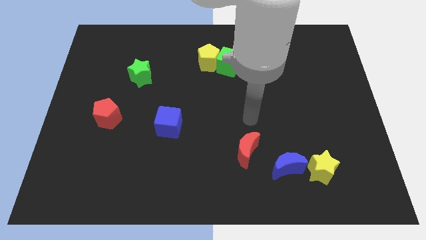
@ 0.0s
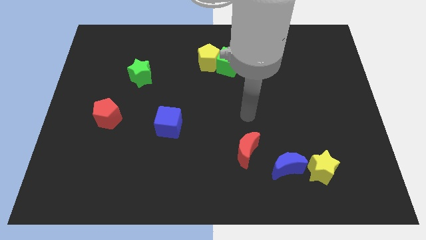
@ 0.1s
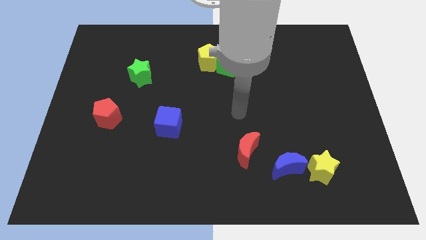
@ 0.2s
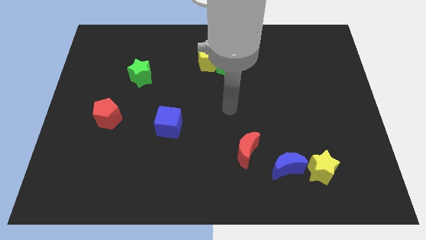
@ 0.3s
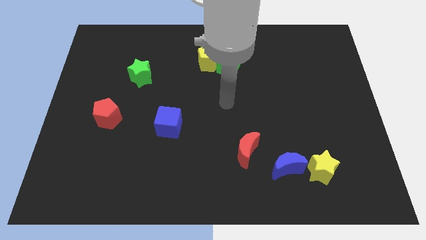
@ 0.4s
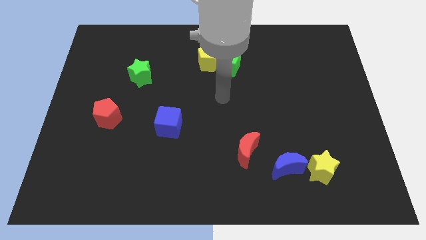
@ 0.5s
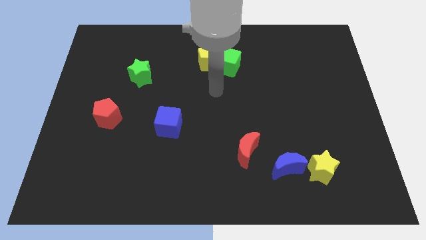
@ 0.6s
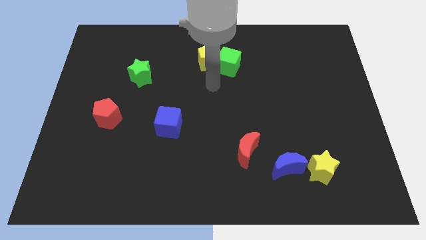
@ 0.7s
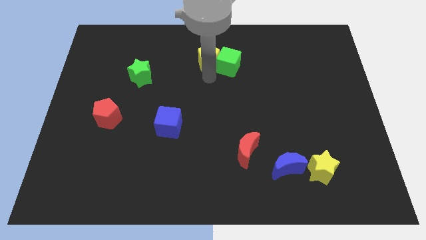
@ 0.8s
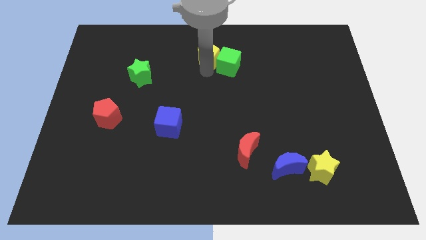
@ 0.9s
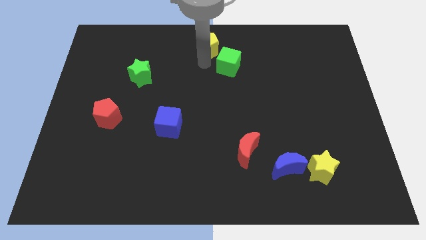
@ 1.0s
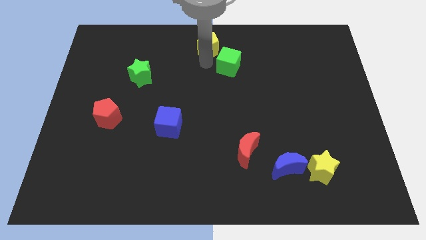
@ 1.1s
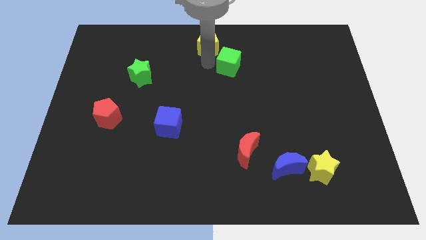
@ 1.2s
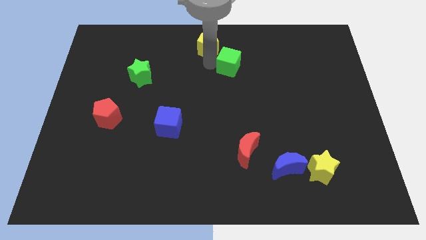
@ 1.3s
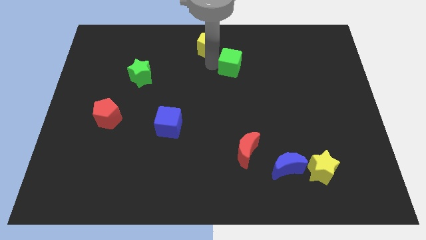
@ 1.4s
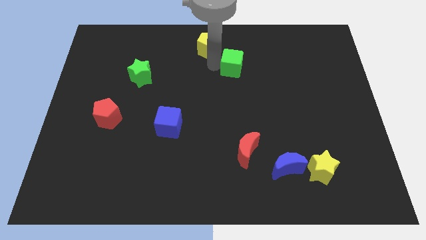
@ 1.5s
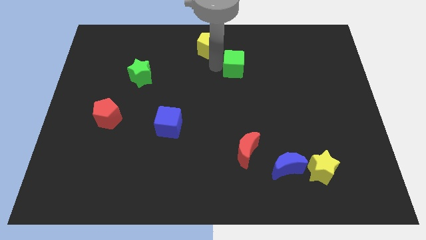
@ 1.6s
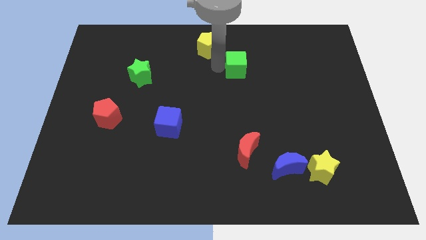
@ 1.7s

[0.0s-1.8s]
move the green cube away from the yellow pentagon

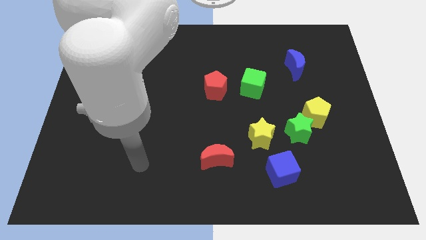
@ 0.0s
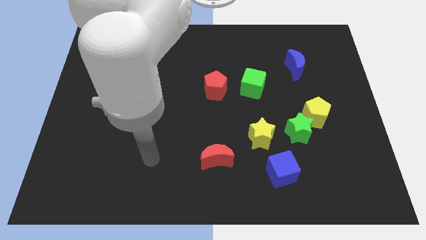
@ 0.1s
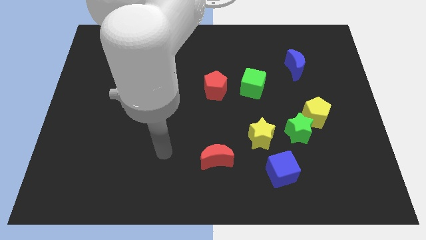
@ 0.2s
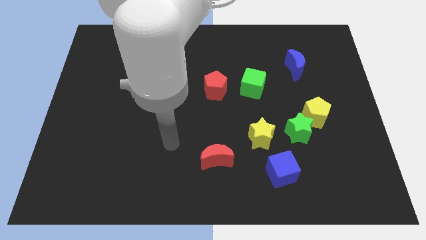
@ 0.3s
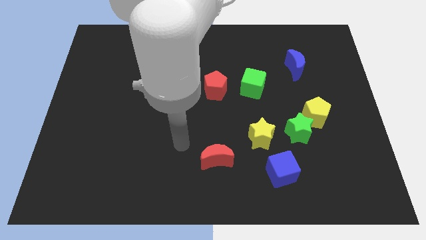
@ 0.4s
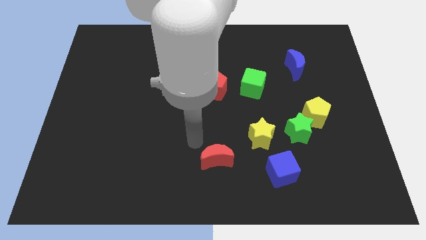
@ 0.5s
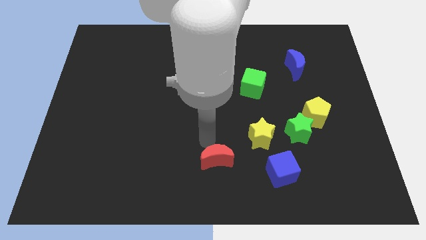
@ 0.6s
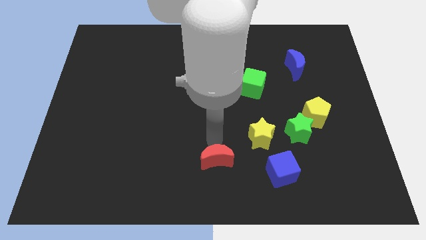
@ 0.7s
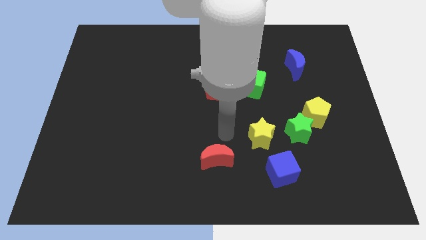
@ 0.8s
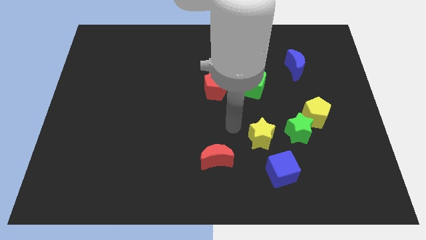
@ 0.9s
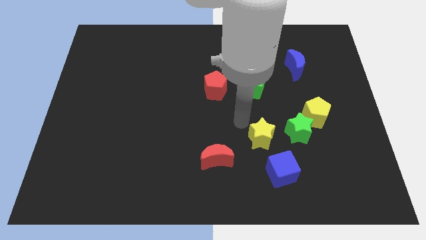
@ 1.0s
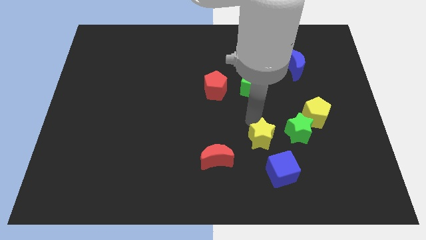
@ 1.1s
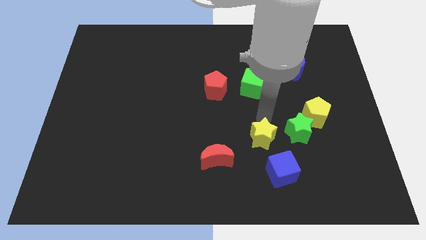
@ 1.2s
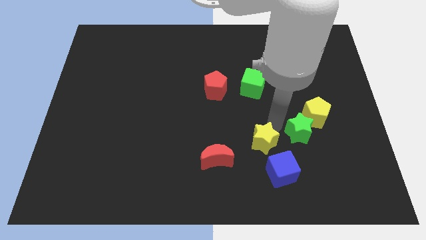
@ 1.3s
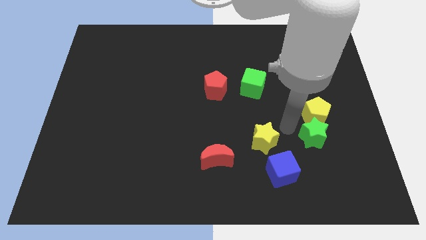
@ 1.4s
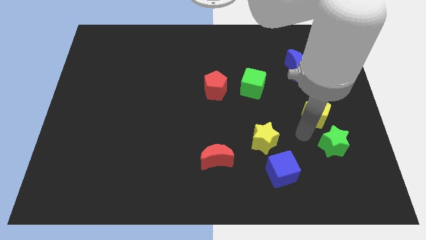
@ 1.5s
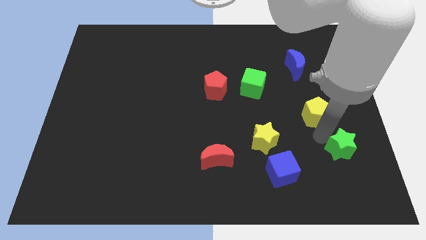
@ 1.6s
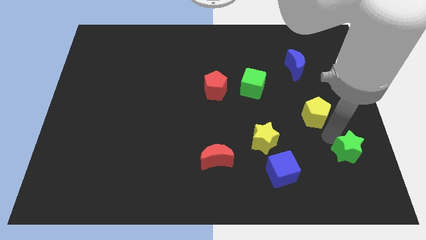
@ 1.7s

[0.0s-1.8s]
separate the yellow pentagon from the green star

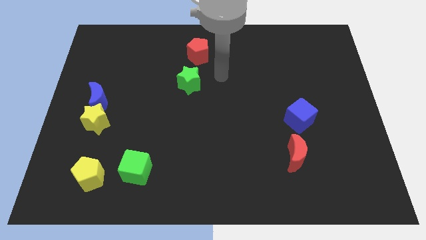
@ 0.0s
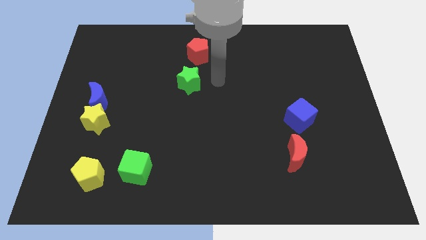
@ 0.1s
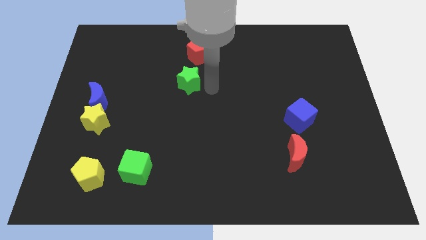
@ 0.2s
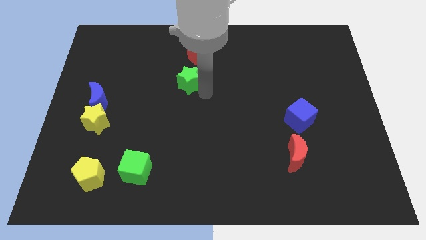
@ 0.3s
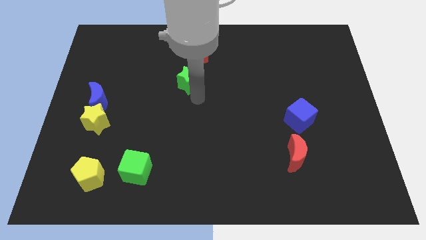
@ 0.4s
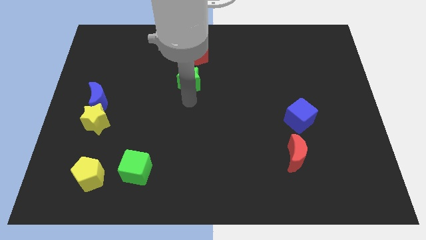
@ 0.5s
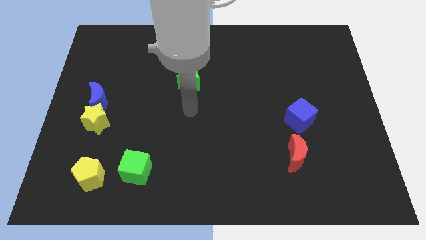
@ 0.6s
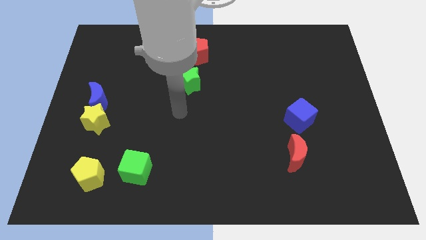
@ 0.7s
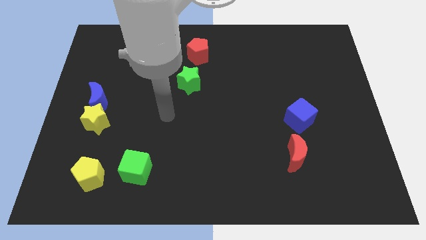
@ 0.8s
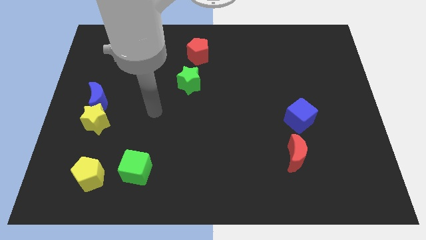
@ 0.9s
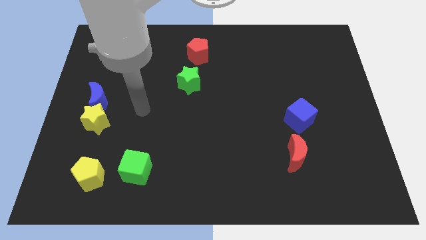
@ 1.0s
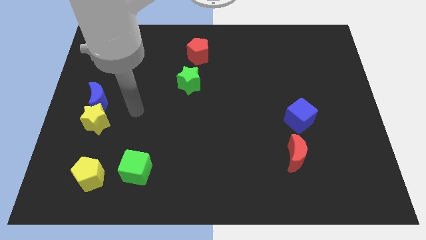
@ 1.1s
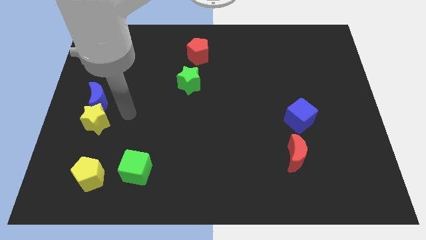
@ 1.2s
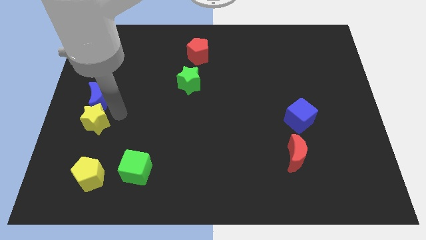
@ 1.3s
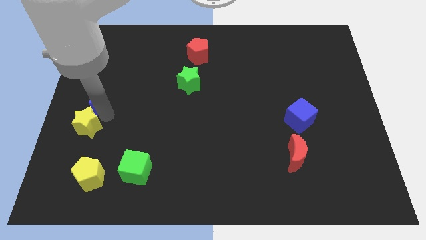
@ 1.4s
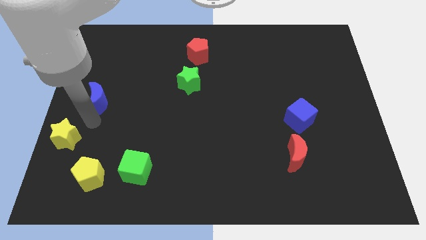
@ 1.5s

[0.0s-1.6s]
separate the blue moon from the yellow star

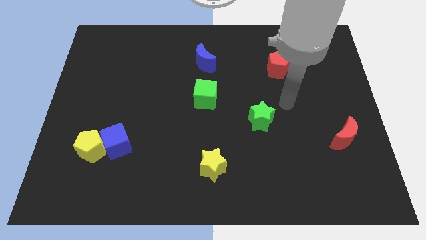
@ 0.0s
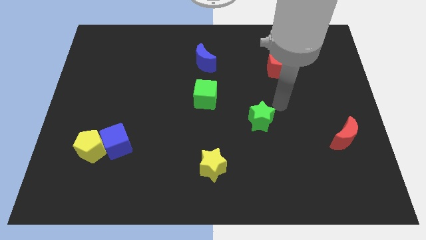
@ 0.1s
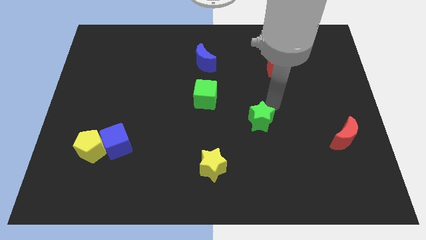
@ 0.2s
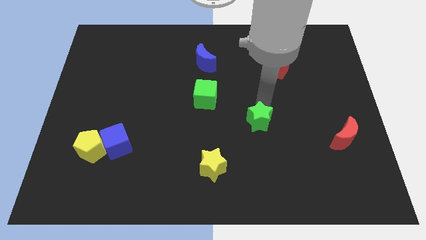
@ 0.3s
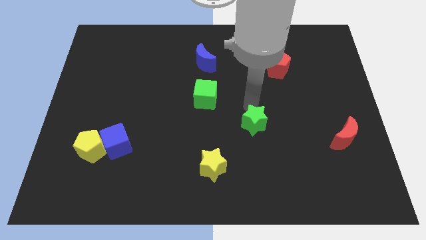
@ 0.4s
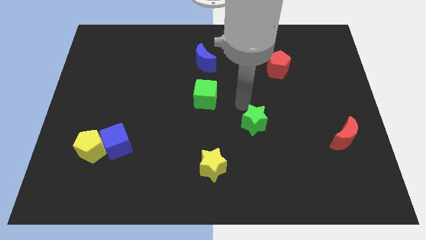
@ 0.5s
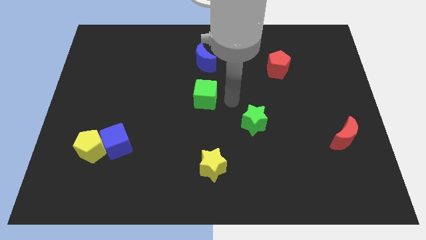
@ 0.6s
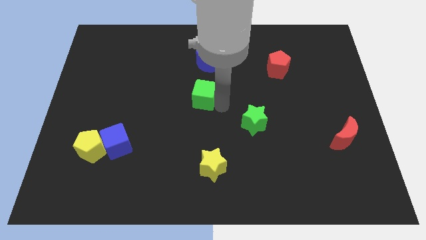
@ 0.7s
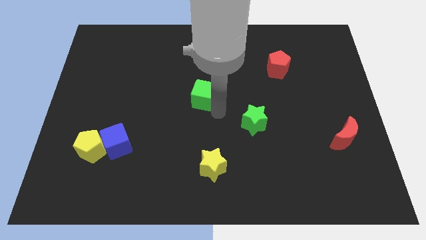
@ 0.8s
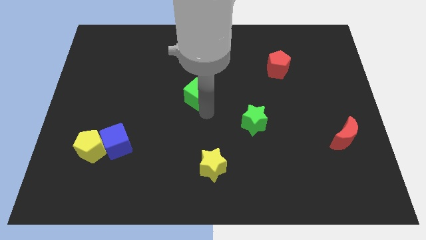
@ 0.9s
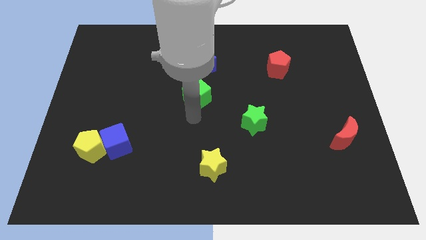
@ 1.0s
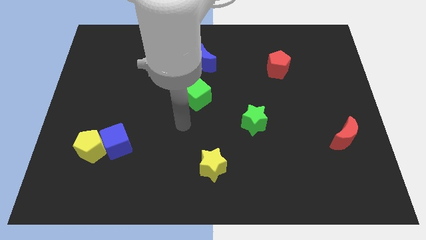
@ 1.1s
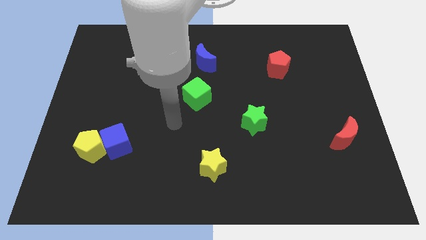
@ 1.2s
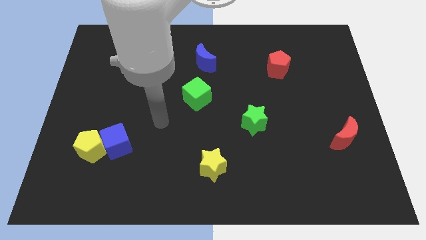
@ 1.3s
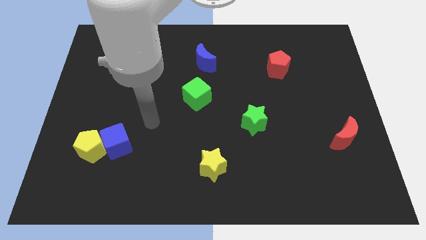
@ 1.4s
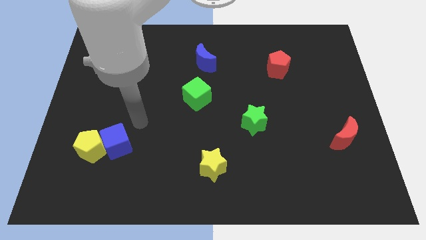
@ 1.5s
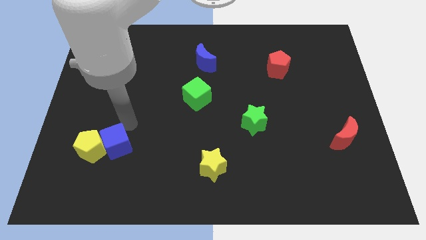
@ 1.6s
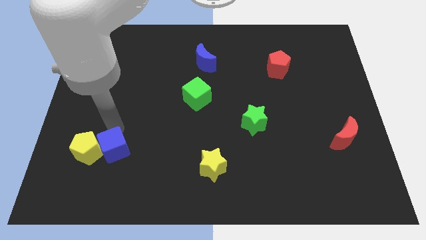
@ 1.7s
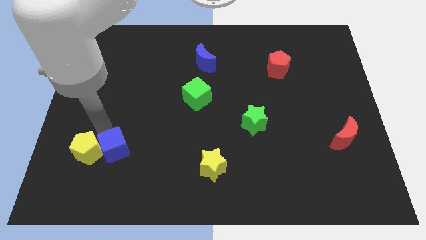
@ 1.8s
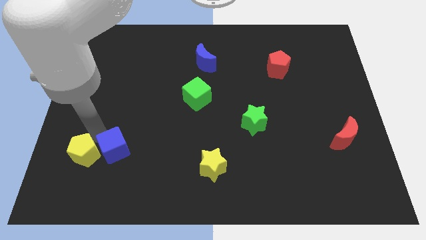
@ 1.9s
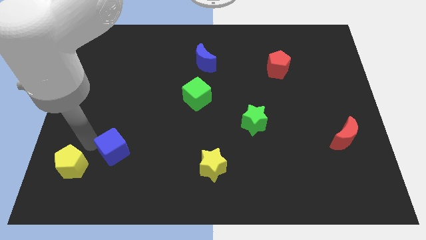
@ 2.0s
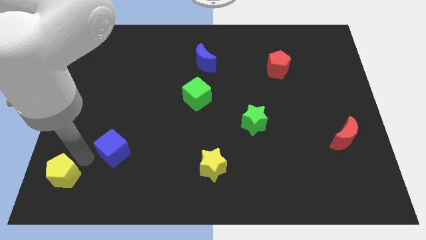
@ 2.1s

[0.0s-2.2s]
separate the blue cube from the yellow pentagon

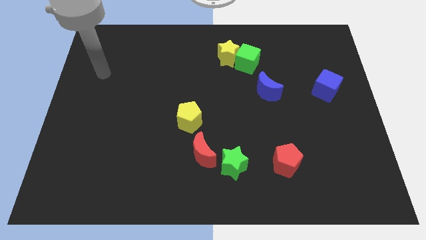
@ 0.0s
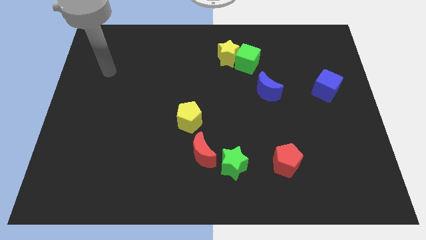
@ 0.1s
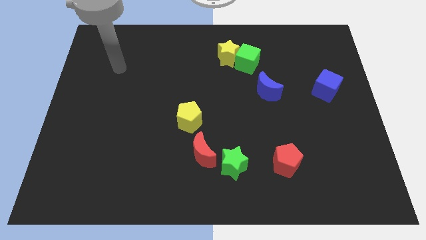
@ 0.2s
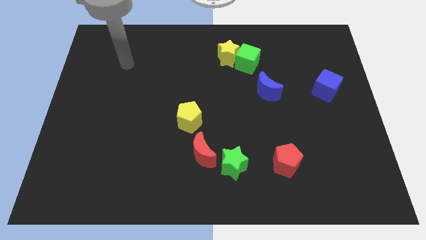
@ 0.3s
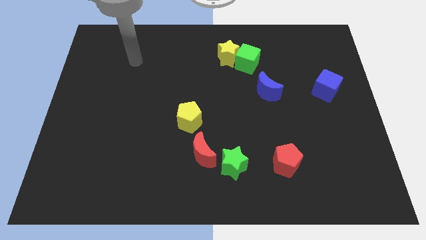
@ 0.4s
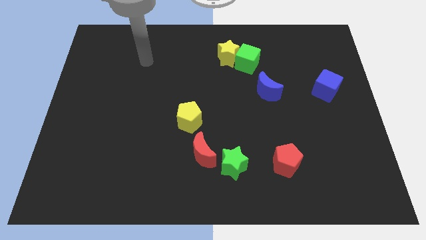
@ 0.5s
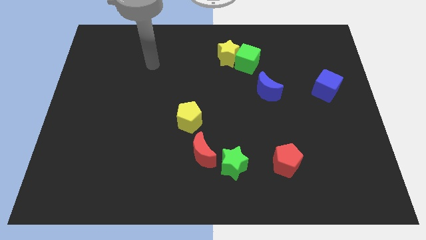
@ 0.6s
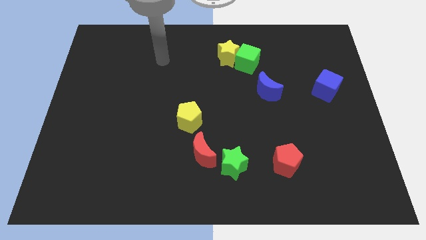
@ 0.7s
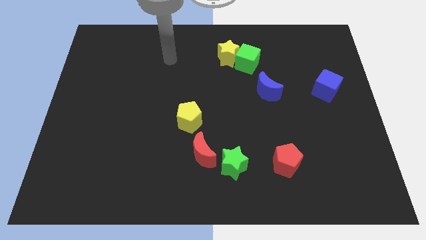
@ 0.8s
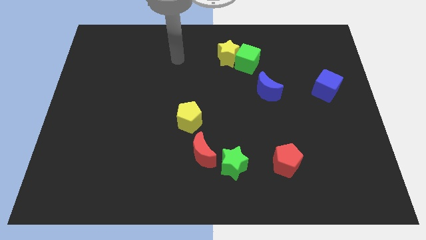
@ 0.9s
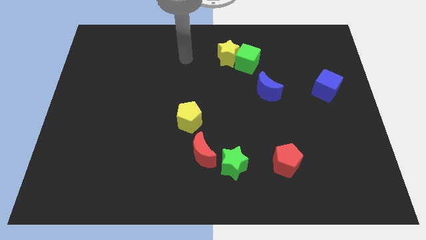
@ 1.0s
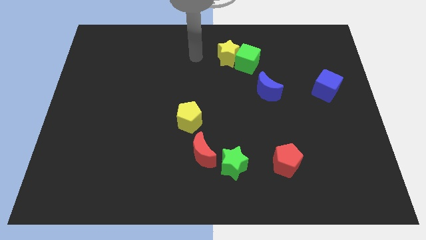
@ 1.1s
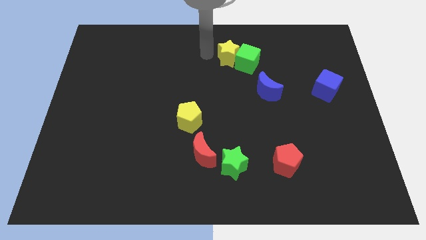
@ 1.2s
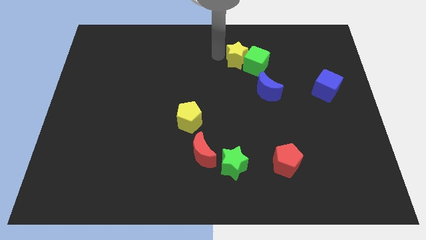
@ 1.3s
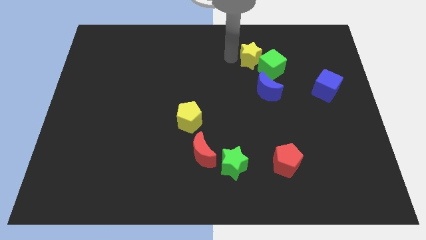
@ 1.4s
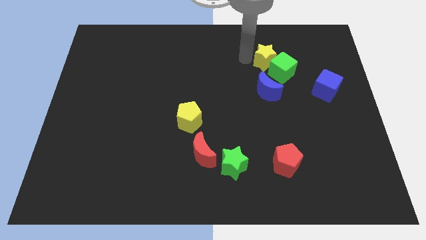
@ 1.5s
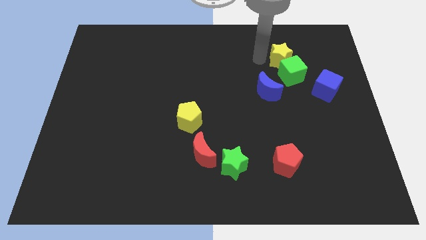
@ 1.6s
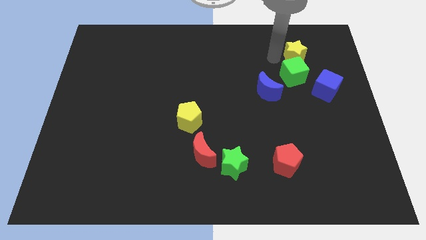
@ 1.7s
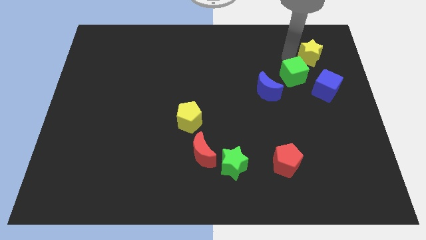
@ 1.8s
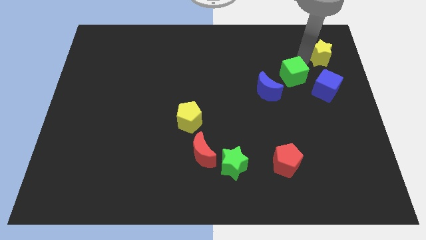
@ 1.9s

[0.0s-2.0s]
separate the green cube from the yellow star
